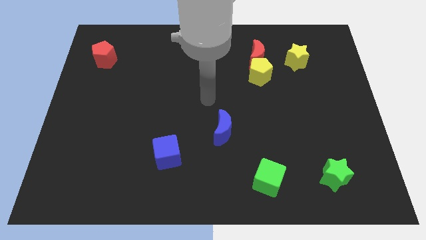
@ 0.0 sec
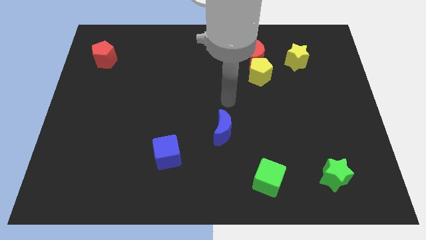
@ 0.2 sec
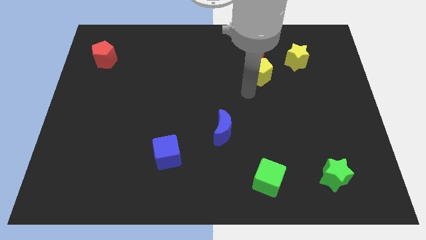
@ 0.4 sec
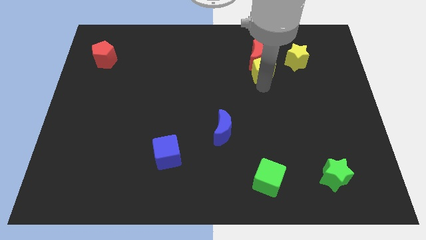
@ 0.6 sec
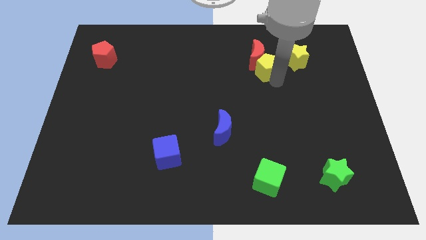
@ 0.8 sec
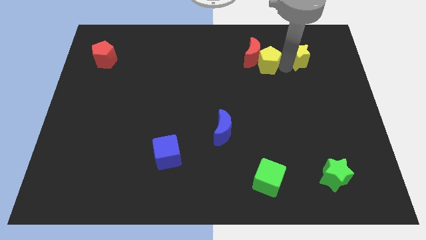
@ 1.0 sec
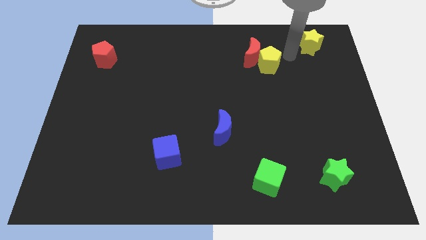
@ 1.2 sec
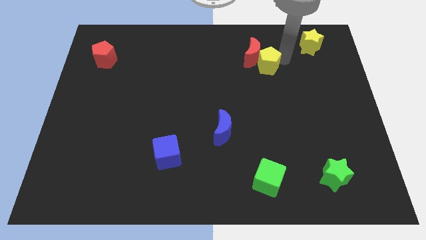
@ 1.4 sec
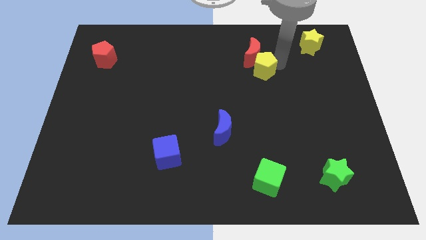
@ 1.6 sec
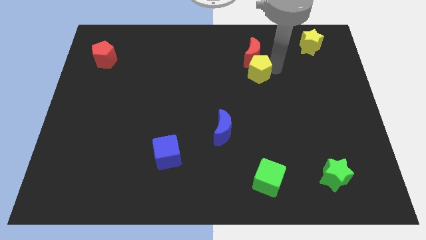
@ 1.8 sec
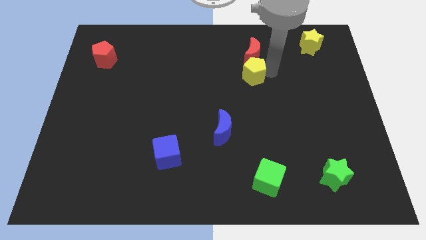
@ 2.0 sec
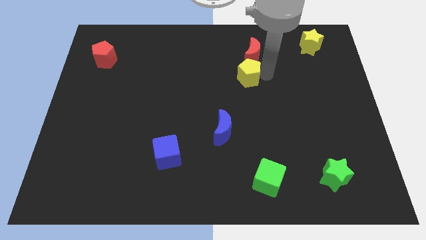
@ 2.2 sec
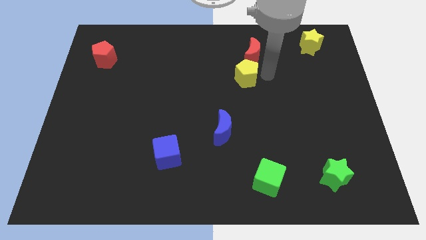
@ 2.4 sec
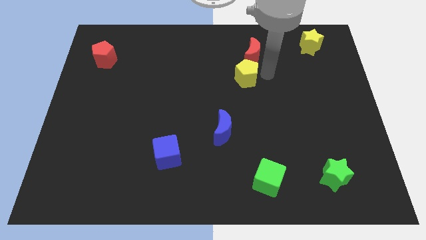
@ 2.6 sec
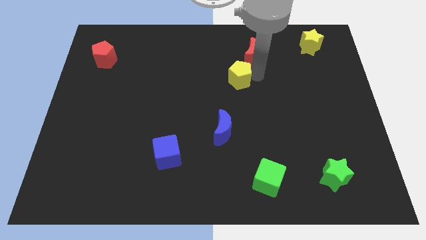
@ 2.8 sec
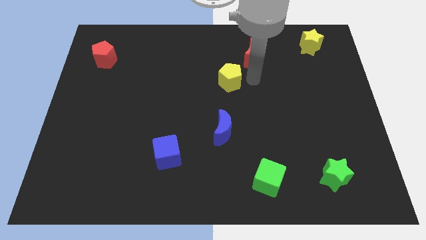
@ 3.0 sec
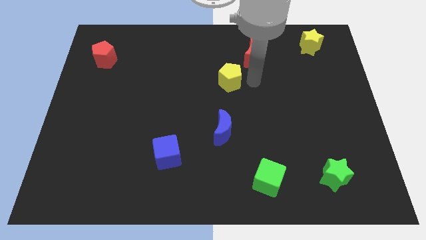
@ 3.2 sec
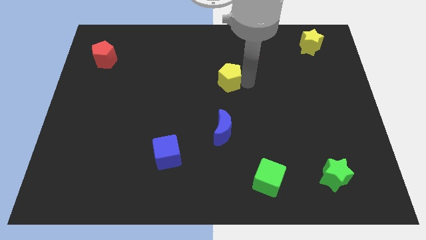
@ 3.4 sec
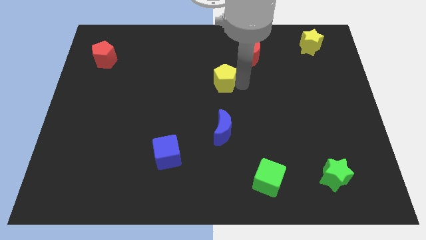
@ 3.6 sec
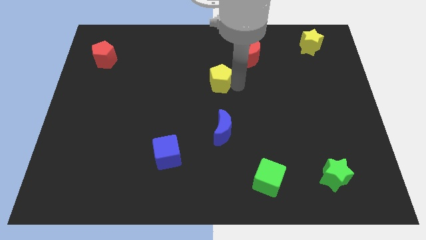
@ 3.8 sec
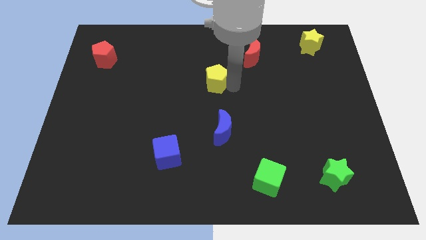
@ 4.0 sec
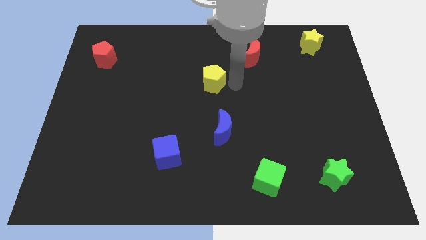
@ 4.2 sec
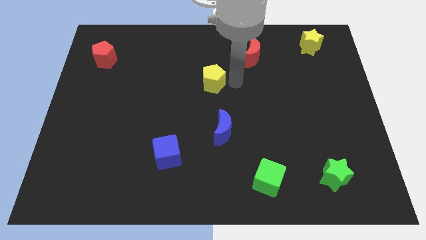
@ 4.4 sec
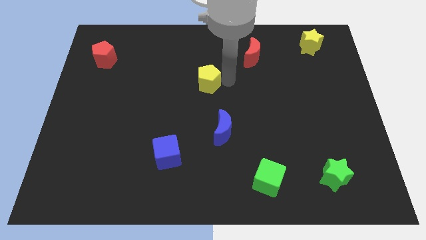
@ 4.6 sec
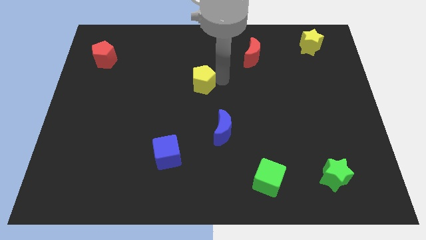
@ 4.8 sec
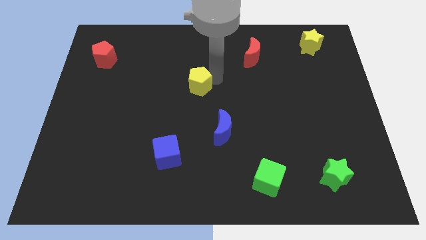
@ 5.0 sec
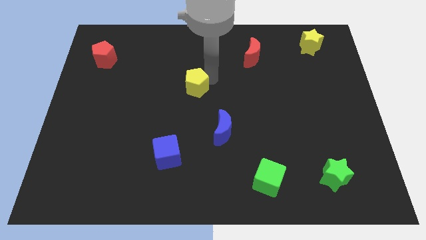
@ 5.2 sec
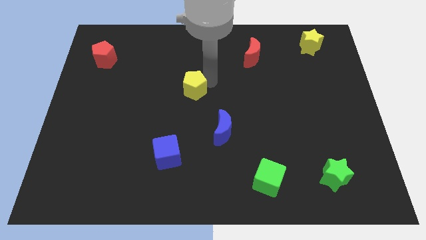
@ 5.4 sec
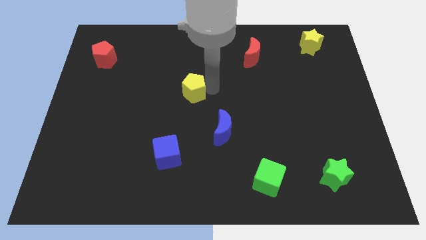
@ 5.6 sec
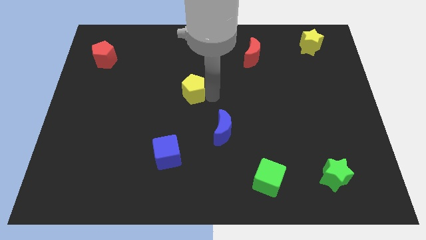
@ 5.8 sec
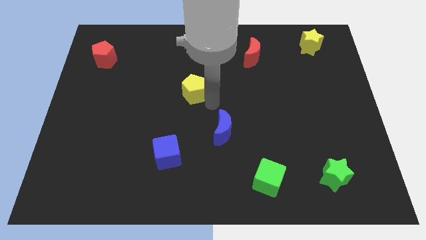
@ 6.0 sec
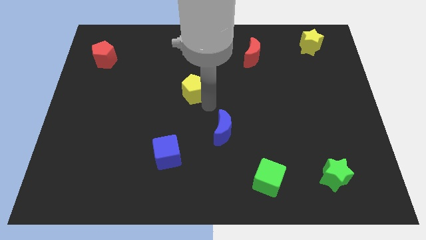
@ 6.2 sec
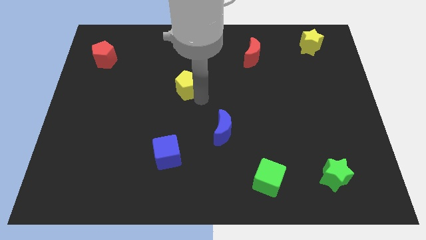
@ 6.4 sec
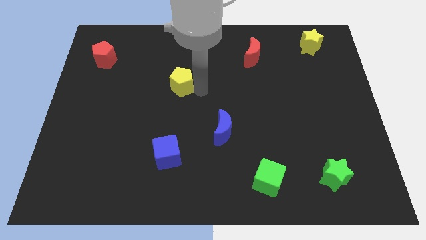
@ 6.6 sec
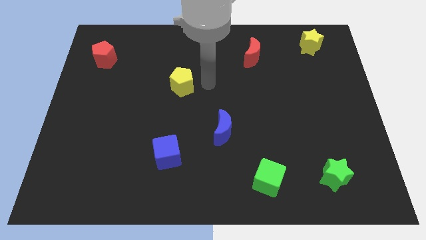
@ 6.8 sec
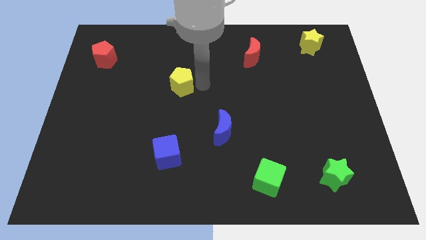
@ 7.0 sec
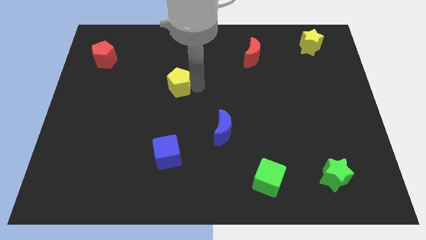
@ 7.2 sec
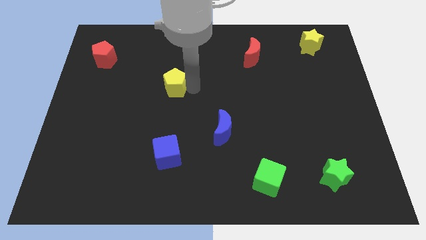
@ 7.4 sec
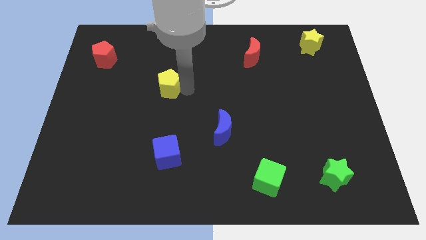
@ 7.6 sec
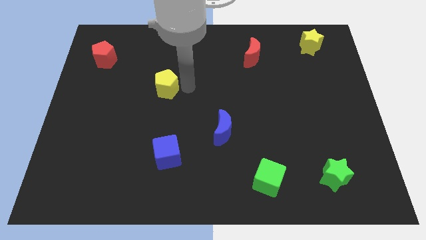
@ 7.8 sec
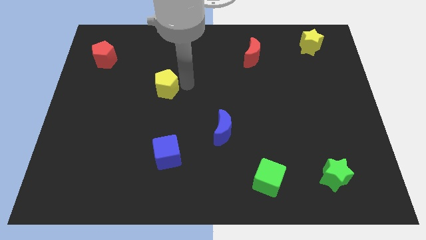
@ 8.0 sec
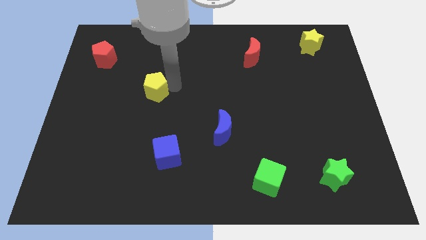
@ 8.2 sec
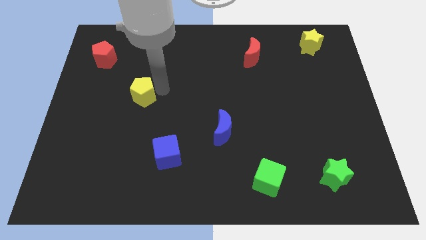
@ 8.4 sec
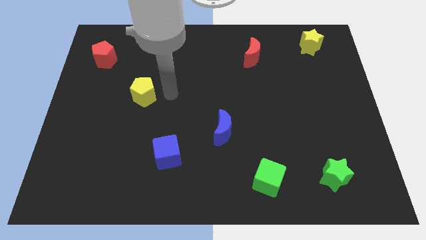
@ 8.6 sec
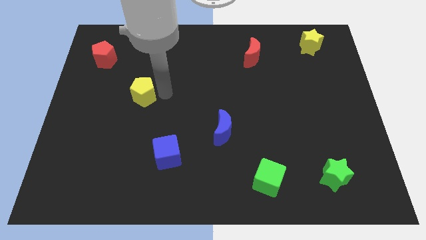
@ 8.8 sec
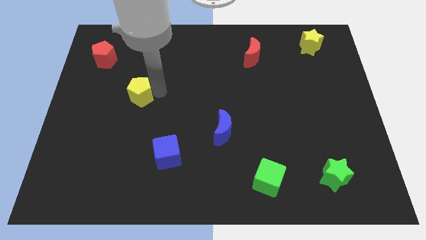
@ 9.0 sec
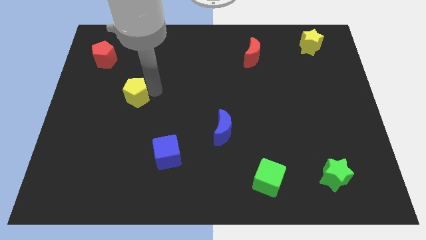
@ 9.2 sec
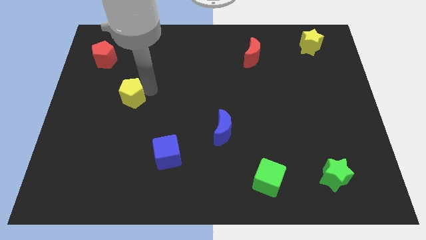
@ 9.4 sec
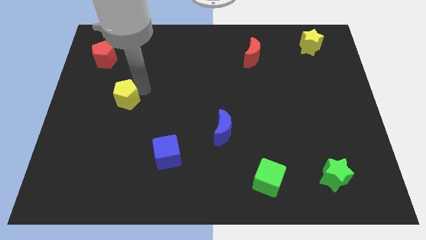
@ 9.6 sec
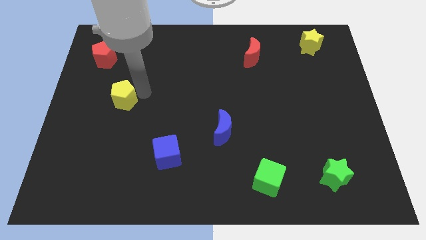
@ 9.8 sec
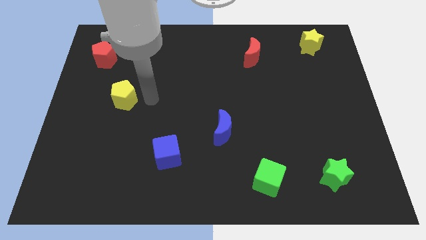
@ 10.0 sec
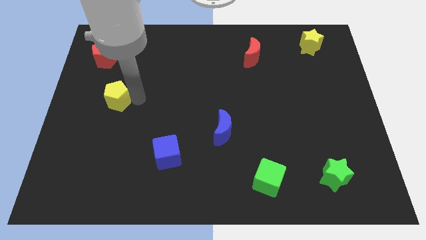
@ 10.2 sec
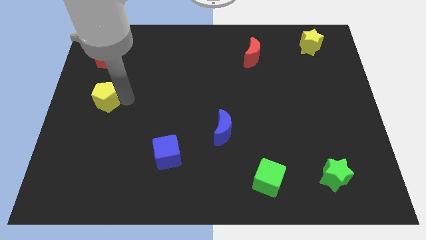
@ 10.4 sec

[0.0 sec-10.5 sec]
put the yellow pentagon to the left side

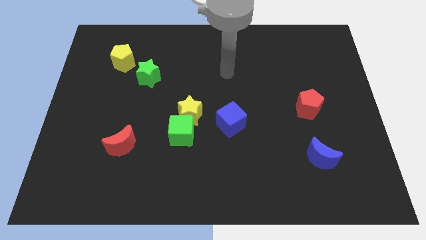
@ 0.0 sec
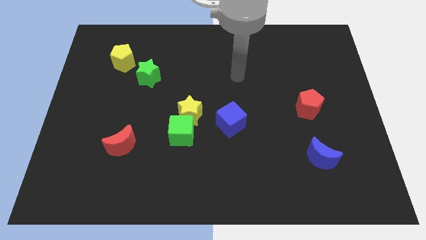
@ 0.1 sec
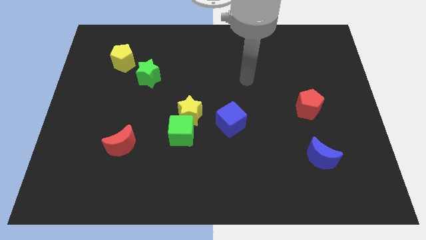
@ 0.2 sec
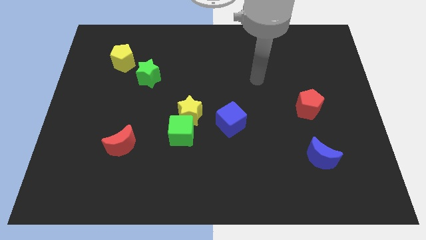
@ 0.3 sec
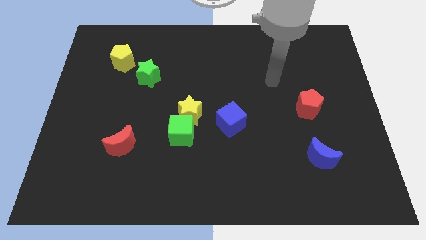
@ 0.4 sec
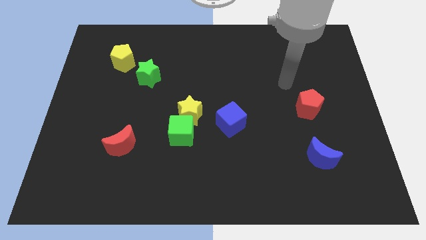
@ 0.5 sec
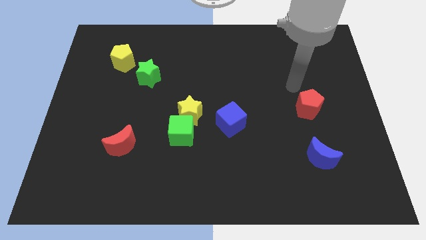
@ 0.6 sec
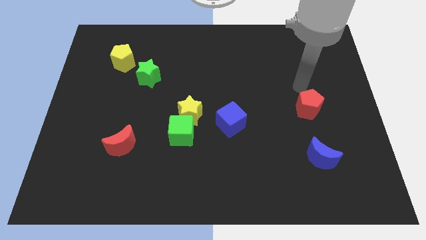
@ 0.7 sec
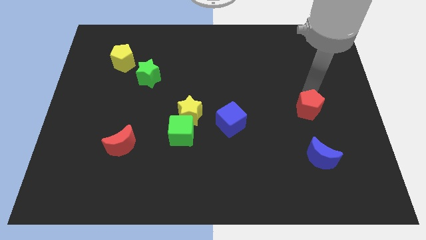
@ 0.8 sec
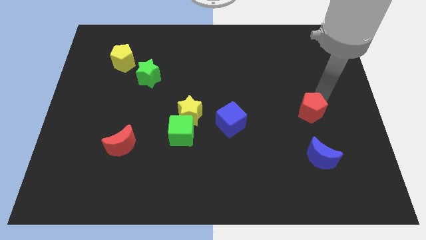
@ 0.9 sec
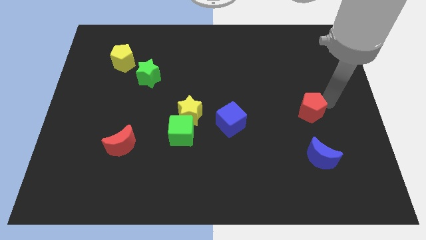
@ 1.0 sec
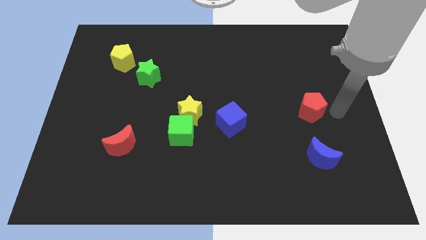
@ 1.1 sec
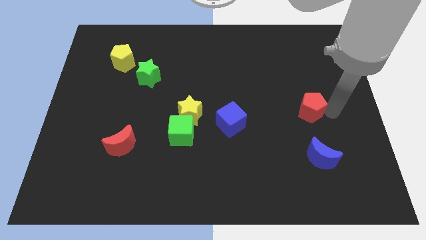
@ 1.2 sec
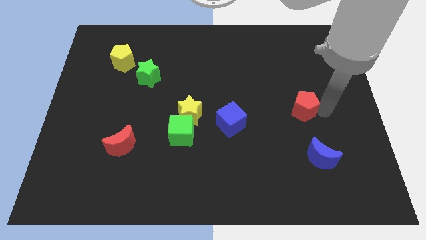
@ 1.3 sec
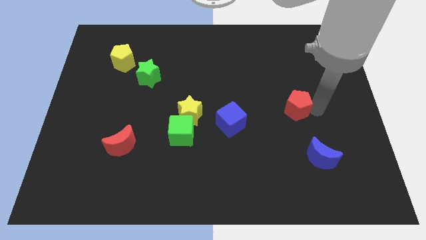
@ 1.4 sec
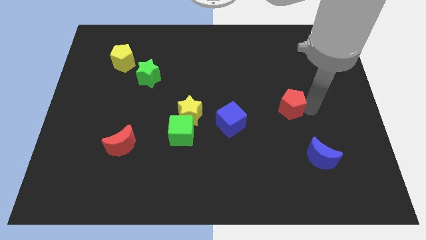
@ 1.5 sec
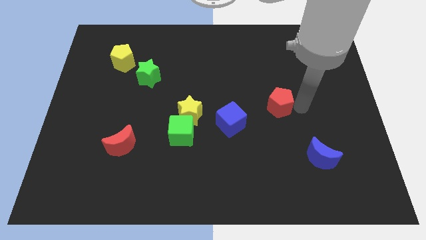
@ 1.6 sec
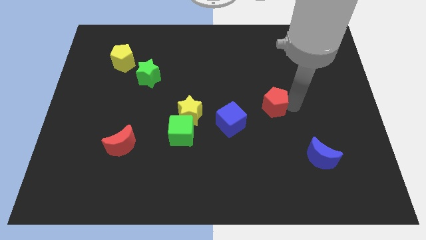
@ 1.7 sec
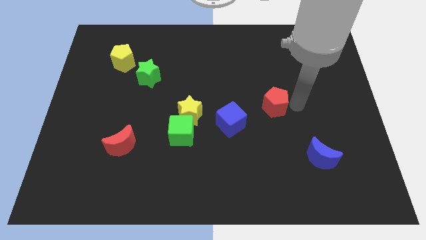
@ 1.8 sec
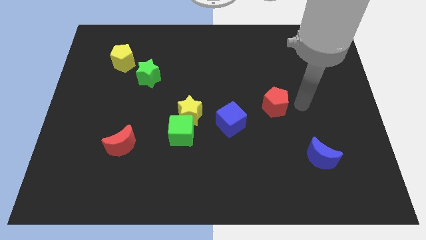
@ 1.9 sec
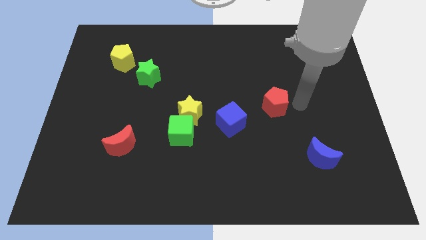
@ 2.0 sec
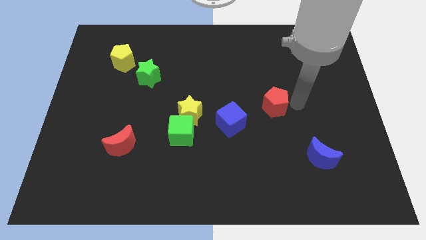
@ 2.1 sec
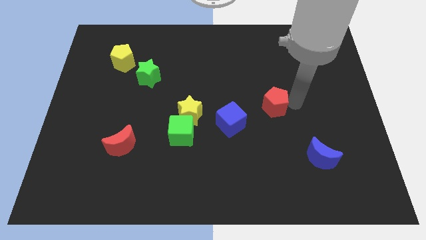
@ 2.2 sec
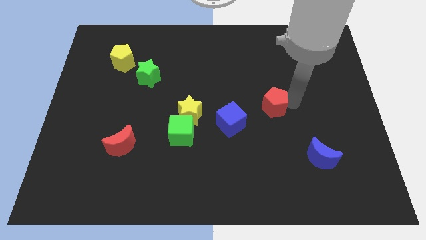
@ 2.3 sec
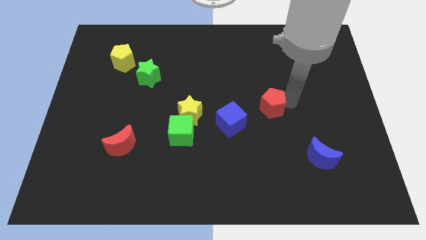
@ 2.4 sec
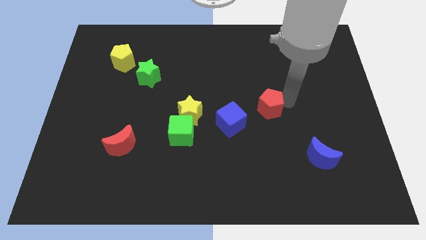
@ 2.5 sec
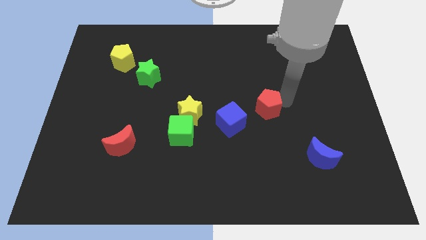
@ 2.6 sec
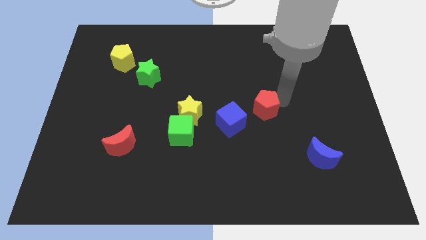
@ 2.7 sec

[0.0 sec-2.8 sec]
push the red pentagon to the center of the board
